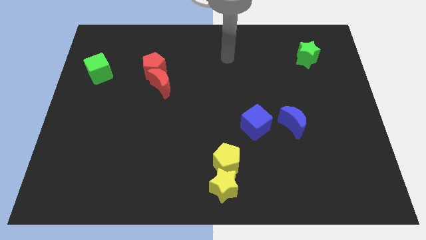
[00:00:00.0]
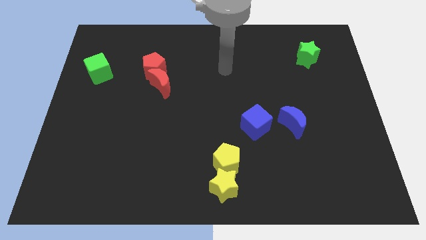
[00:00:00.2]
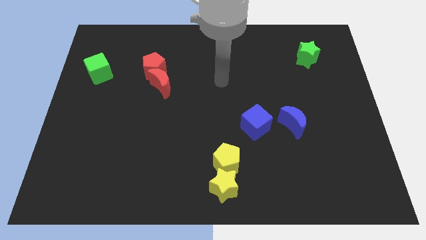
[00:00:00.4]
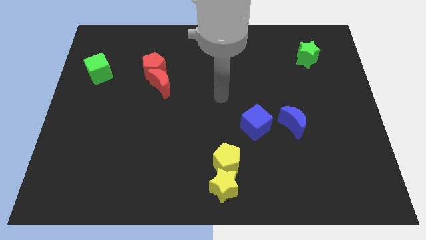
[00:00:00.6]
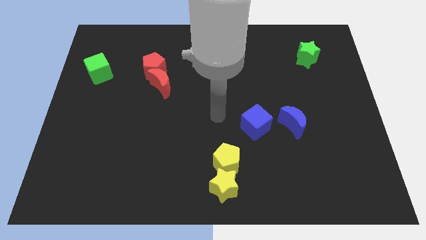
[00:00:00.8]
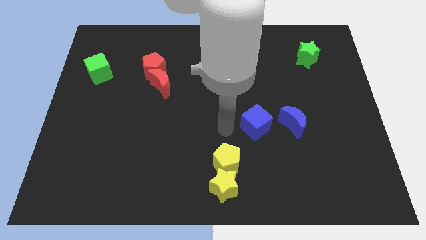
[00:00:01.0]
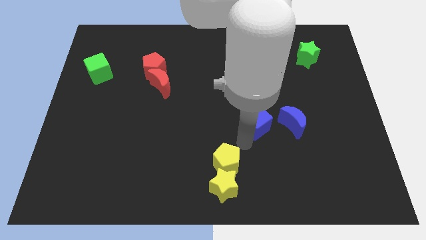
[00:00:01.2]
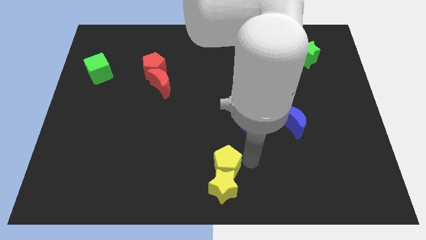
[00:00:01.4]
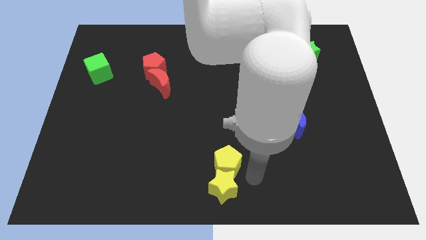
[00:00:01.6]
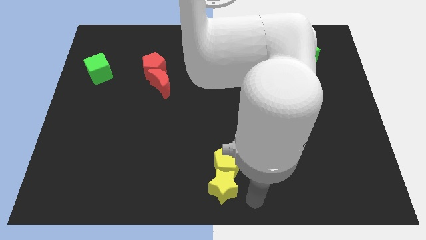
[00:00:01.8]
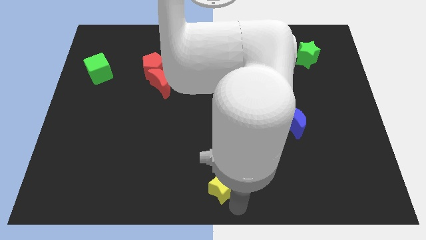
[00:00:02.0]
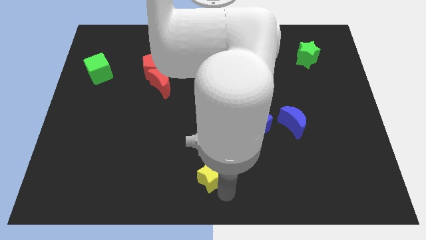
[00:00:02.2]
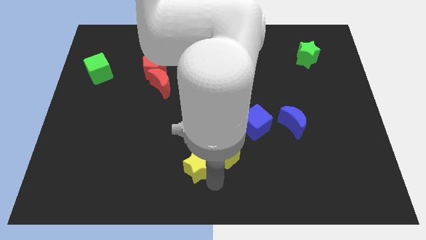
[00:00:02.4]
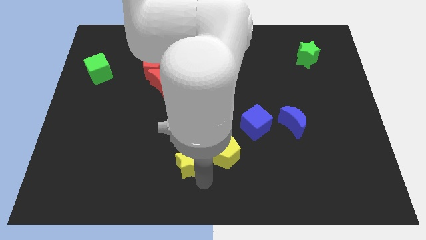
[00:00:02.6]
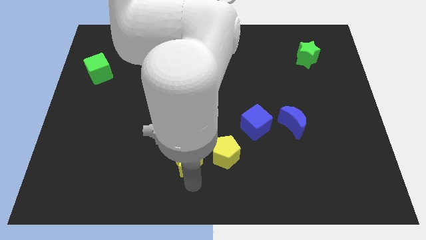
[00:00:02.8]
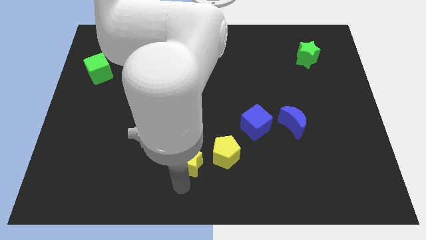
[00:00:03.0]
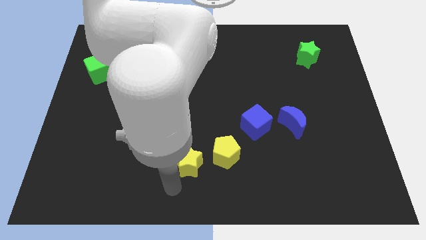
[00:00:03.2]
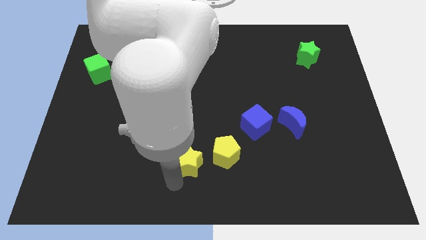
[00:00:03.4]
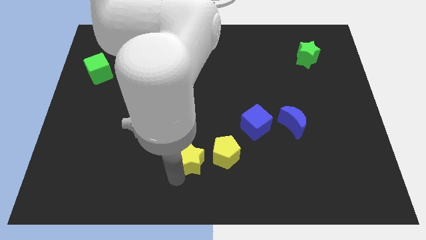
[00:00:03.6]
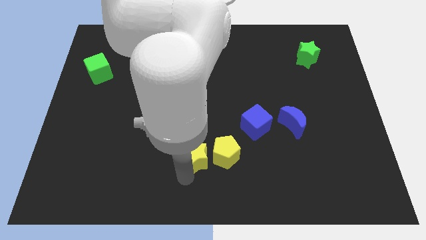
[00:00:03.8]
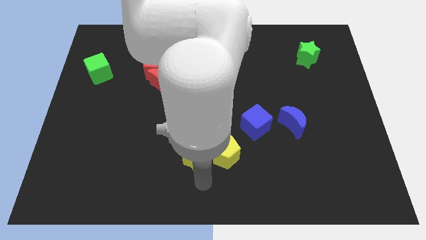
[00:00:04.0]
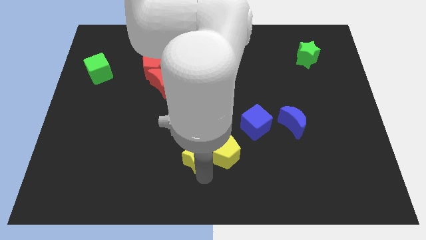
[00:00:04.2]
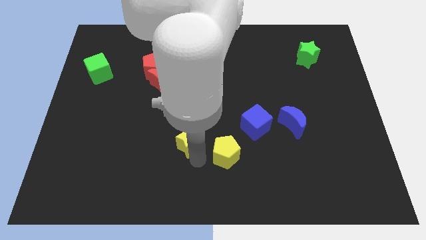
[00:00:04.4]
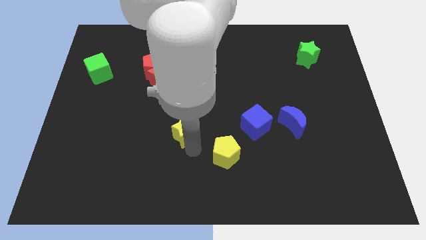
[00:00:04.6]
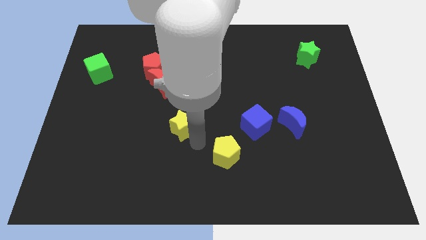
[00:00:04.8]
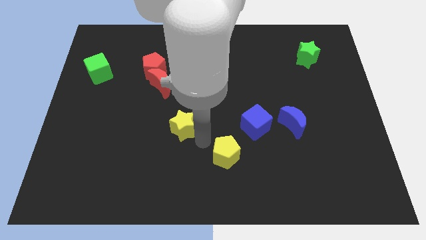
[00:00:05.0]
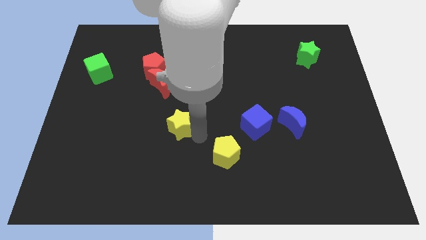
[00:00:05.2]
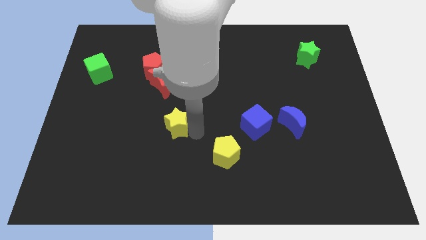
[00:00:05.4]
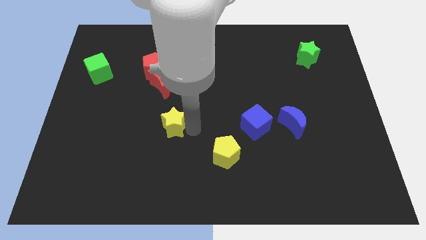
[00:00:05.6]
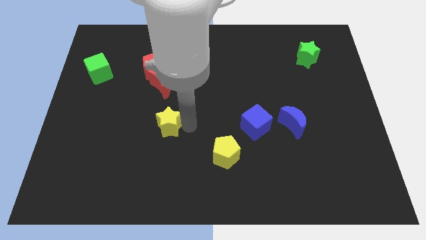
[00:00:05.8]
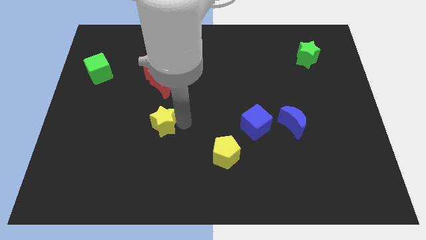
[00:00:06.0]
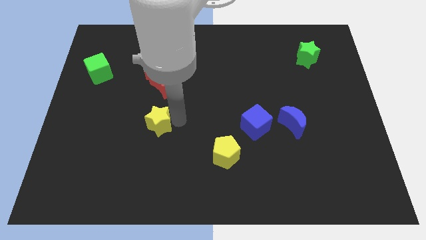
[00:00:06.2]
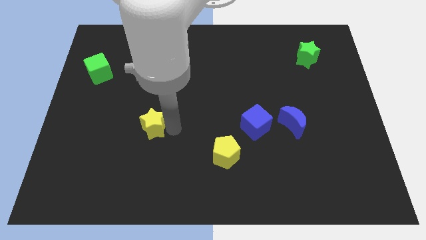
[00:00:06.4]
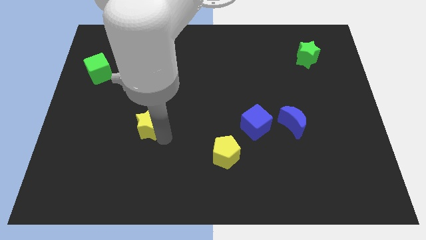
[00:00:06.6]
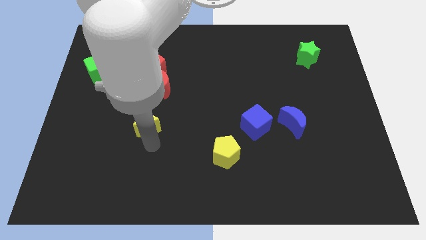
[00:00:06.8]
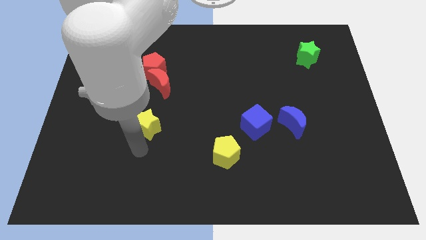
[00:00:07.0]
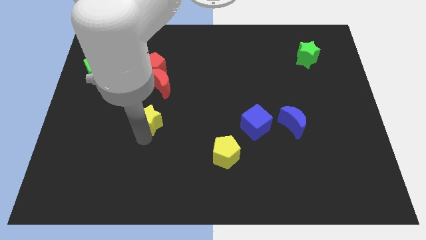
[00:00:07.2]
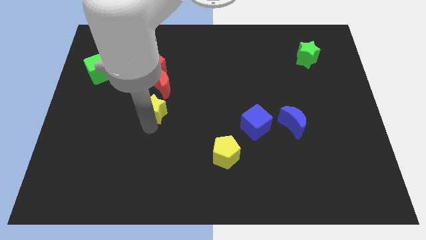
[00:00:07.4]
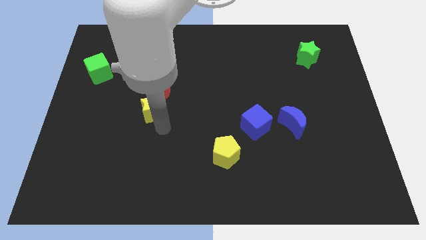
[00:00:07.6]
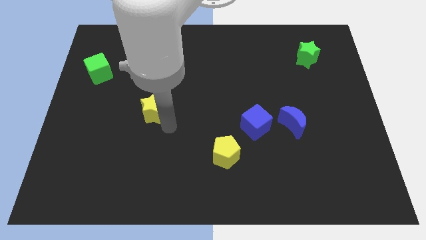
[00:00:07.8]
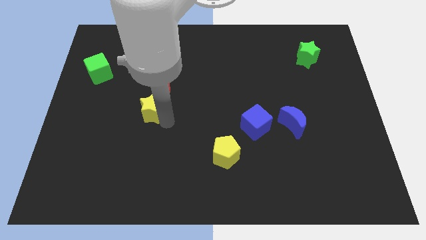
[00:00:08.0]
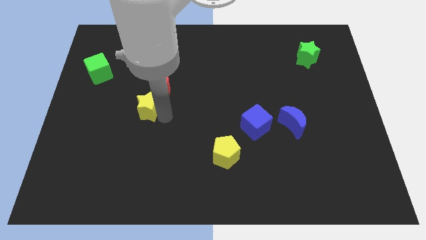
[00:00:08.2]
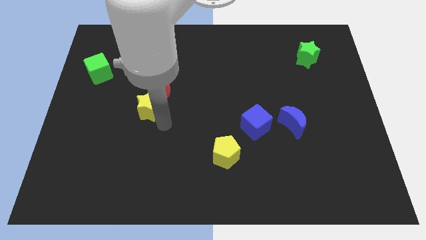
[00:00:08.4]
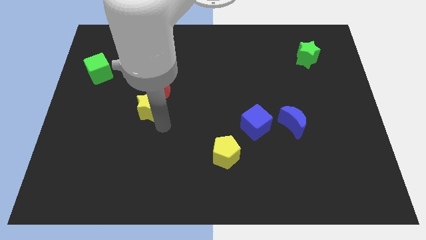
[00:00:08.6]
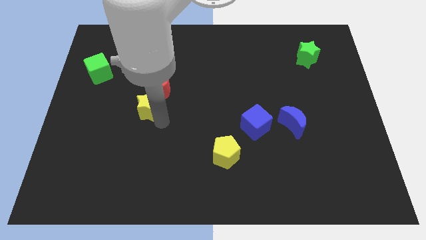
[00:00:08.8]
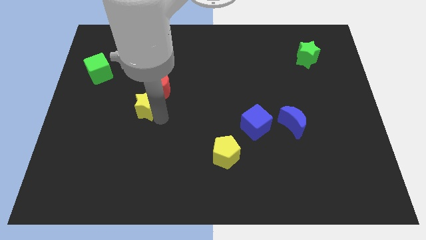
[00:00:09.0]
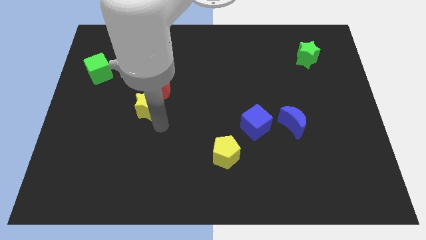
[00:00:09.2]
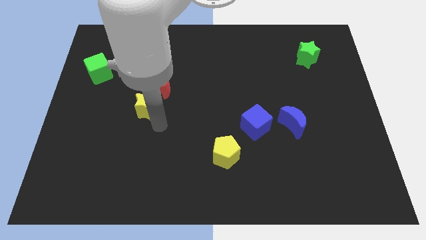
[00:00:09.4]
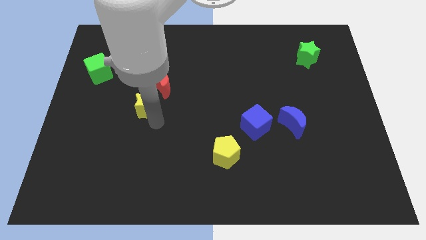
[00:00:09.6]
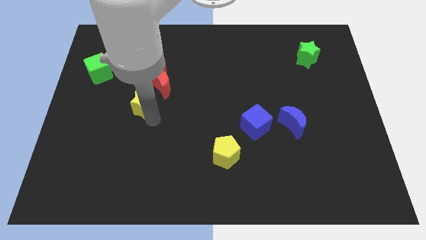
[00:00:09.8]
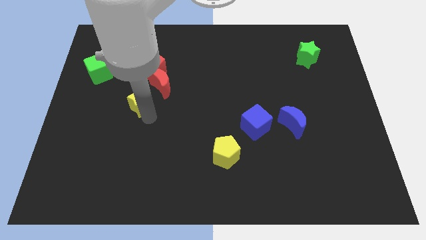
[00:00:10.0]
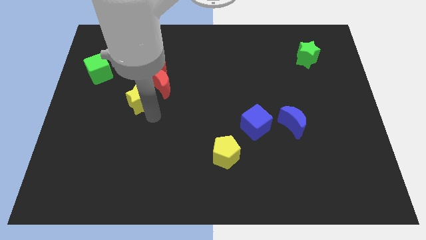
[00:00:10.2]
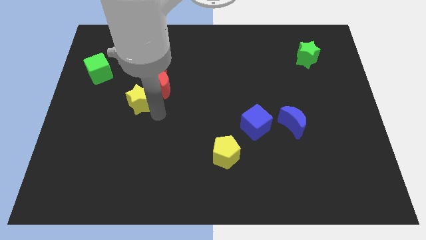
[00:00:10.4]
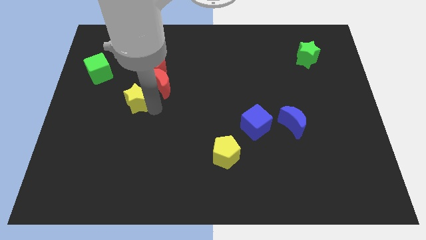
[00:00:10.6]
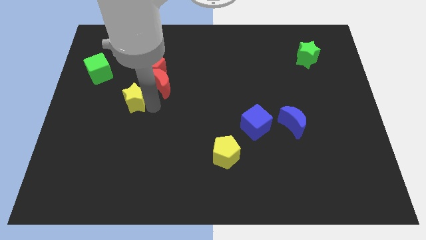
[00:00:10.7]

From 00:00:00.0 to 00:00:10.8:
move the yellow star just left of the red moon
